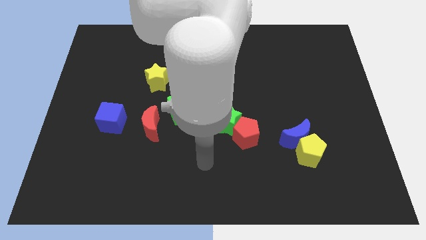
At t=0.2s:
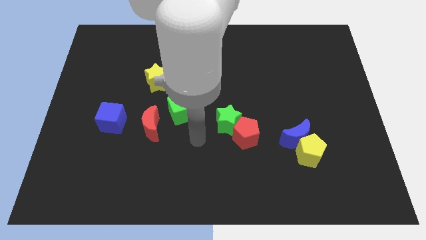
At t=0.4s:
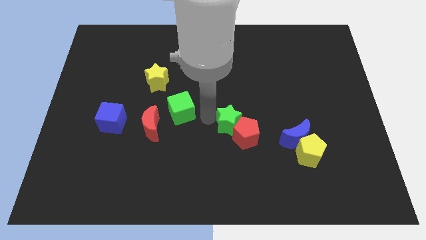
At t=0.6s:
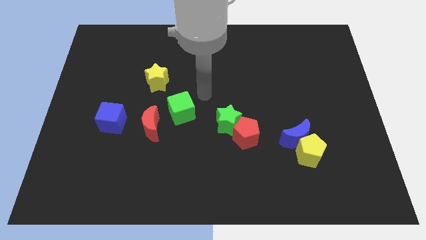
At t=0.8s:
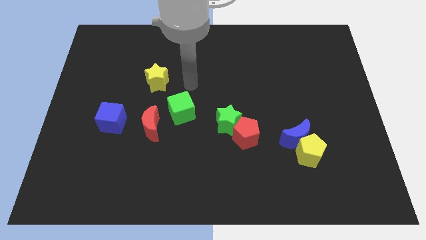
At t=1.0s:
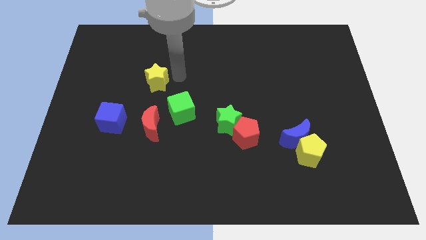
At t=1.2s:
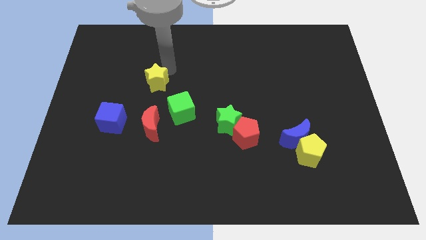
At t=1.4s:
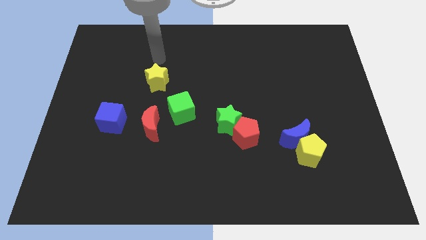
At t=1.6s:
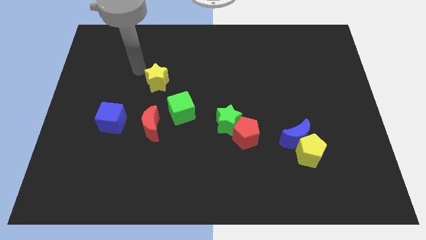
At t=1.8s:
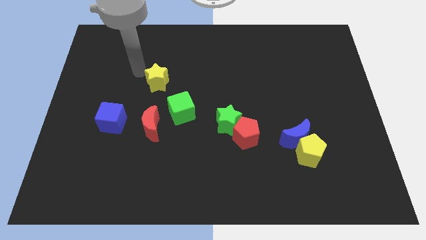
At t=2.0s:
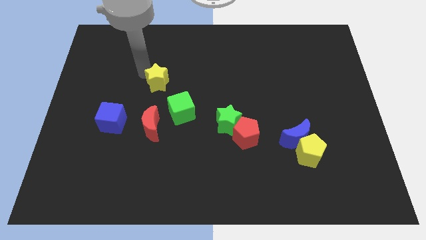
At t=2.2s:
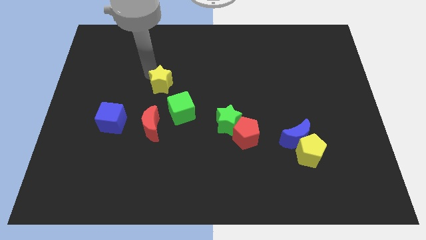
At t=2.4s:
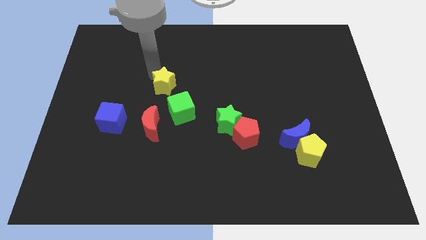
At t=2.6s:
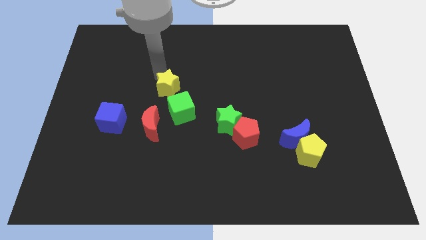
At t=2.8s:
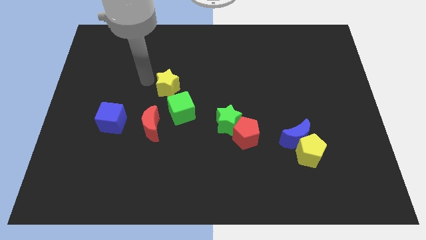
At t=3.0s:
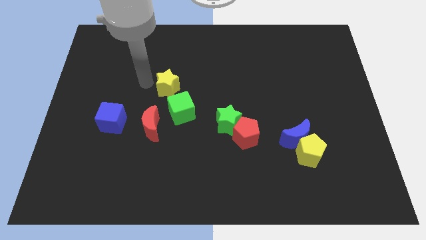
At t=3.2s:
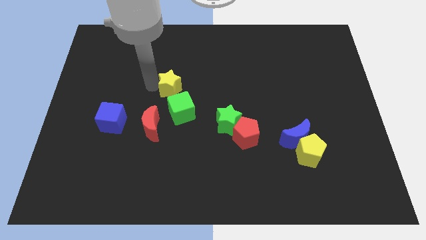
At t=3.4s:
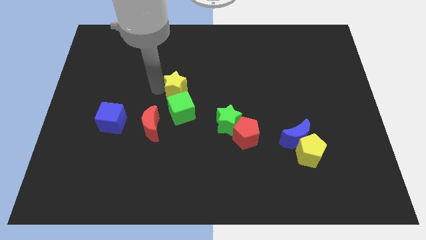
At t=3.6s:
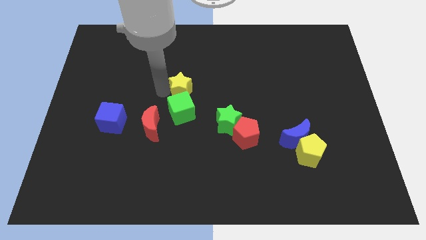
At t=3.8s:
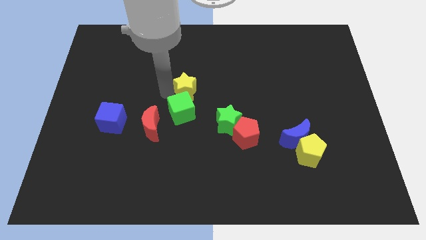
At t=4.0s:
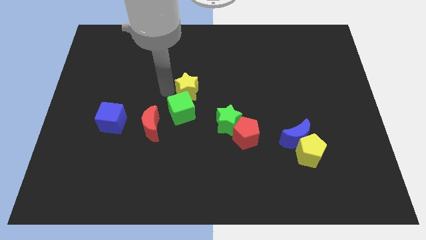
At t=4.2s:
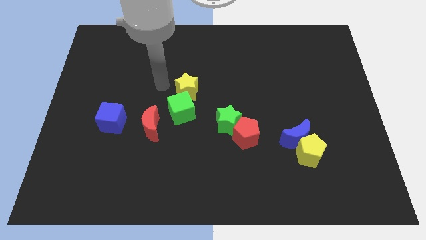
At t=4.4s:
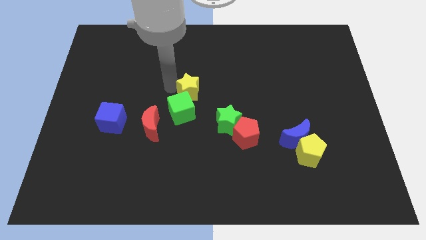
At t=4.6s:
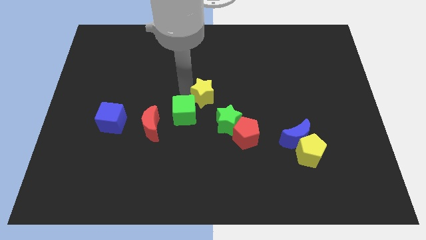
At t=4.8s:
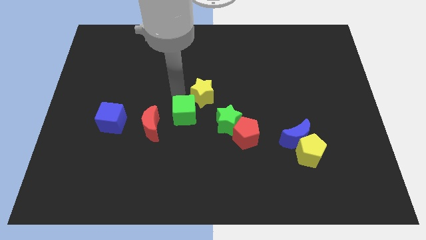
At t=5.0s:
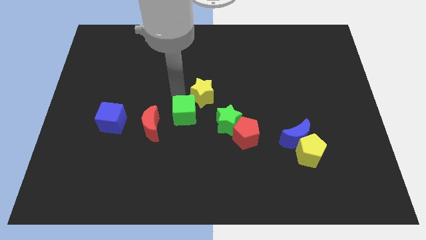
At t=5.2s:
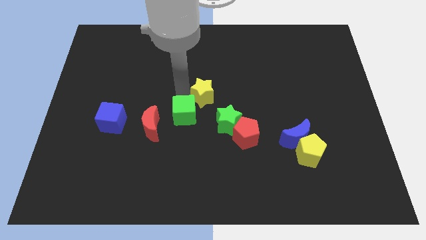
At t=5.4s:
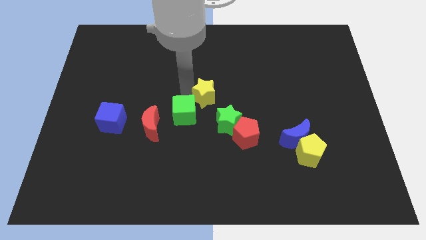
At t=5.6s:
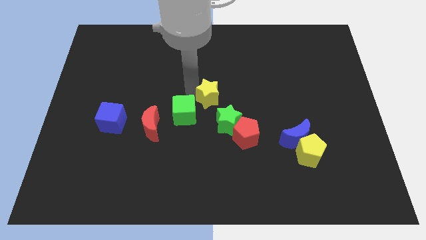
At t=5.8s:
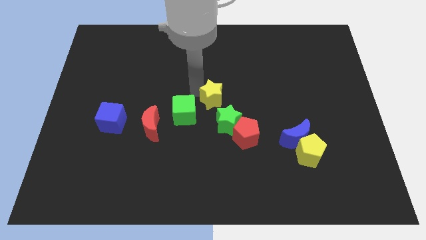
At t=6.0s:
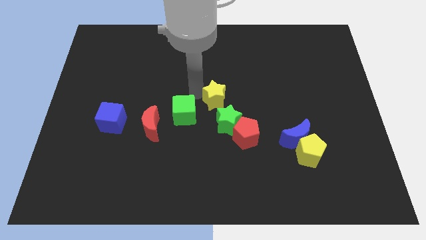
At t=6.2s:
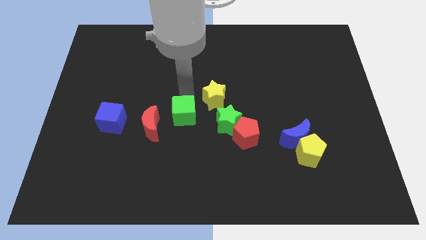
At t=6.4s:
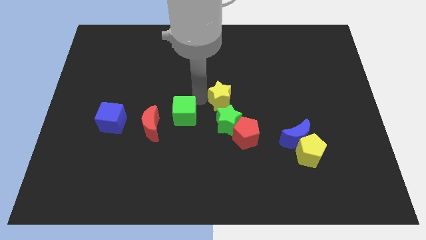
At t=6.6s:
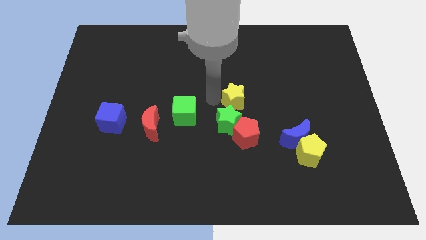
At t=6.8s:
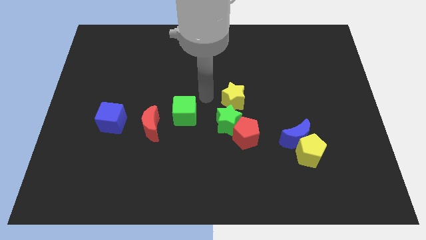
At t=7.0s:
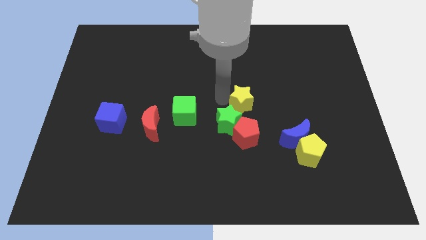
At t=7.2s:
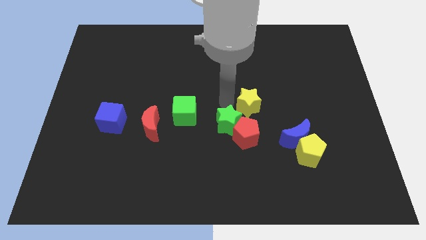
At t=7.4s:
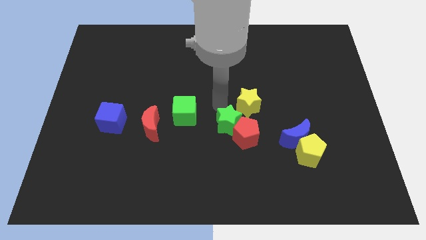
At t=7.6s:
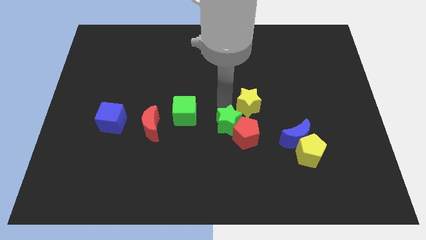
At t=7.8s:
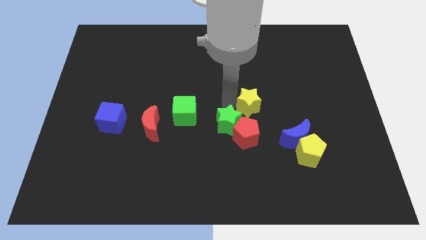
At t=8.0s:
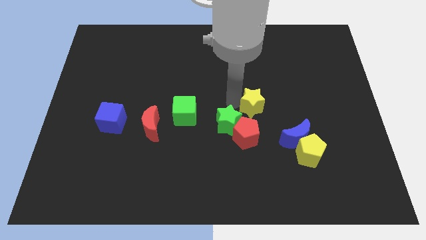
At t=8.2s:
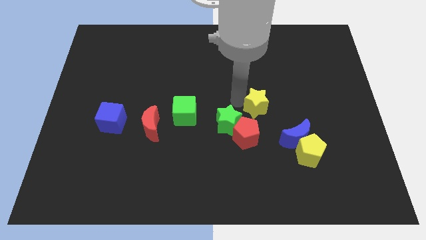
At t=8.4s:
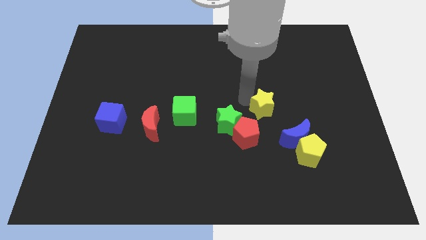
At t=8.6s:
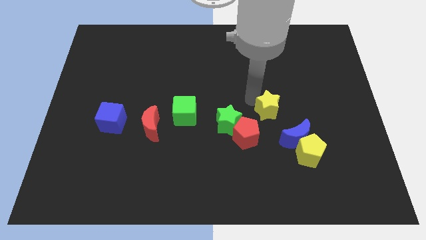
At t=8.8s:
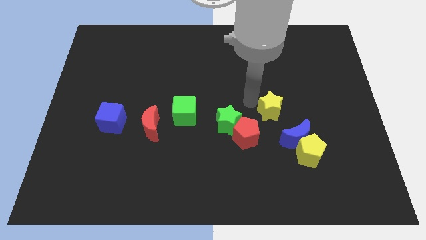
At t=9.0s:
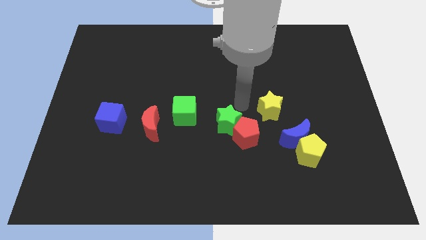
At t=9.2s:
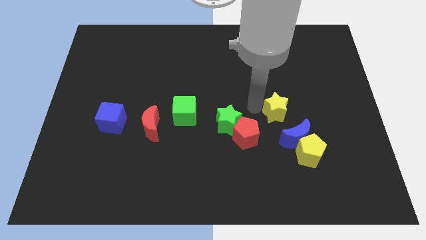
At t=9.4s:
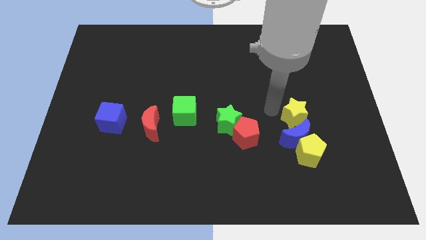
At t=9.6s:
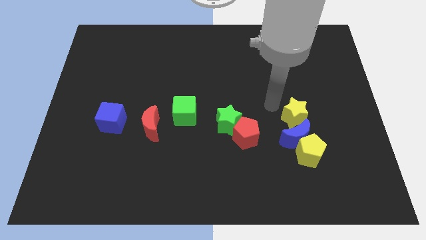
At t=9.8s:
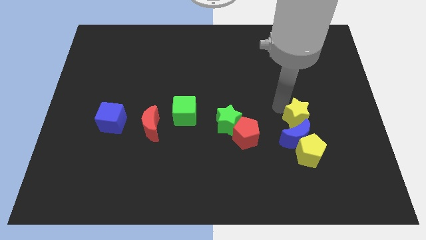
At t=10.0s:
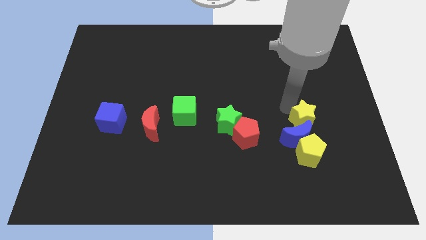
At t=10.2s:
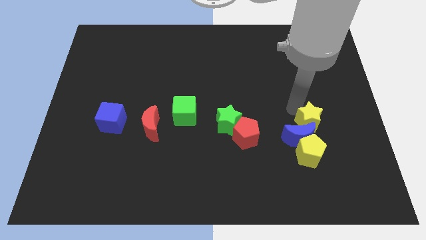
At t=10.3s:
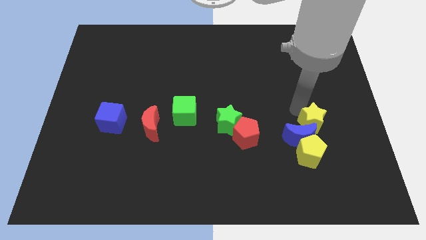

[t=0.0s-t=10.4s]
put the yellow star to the top right side of the yellow pentagon

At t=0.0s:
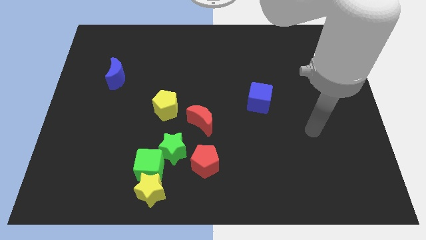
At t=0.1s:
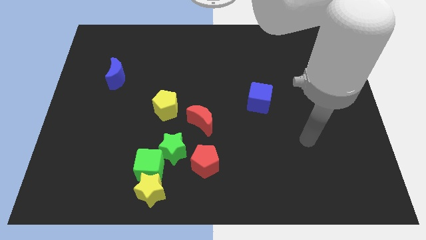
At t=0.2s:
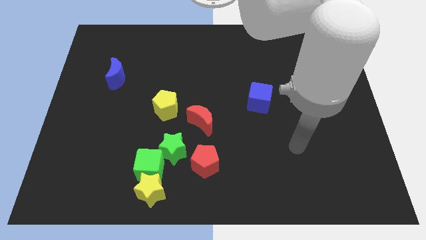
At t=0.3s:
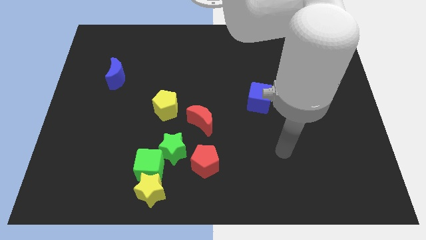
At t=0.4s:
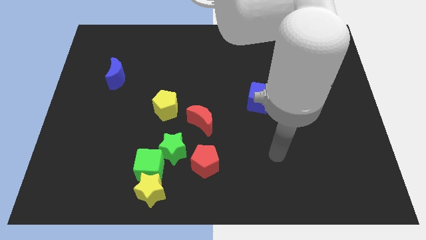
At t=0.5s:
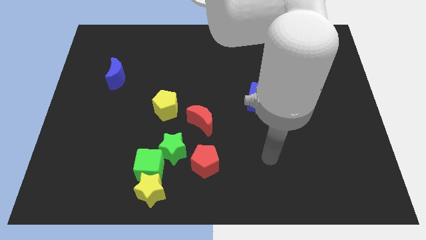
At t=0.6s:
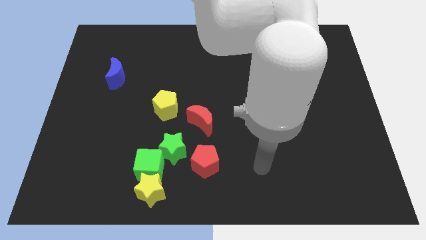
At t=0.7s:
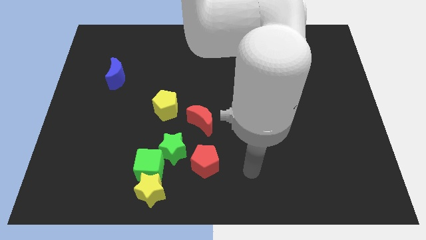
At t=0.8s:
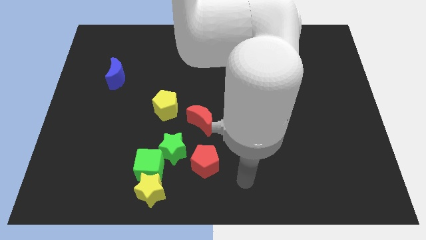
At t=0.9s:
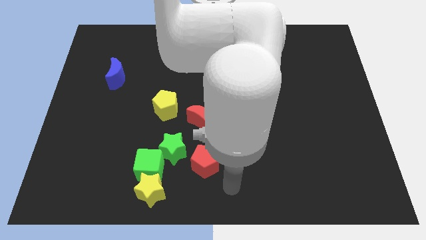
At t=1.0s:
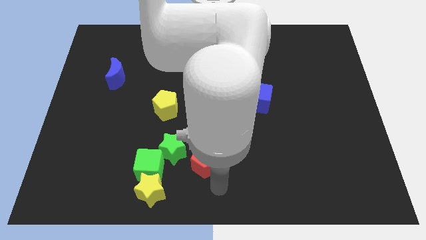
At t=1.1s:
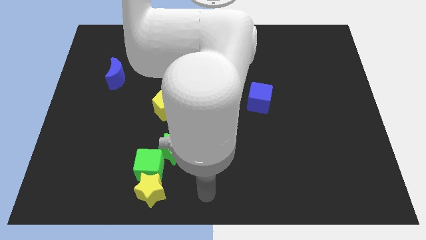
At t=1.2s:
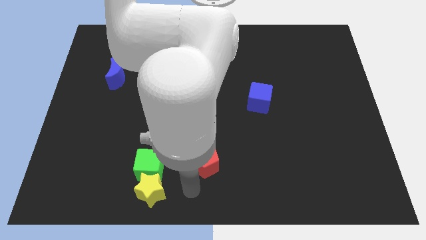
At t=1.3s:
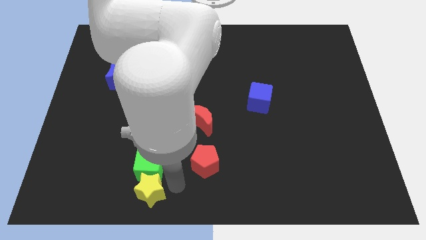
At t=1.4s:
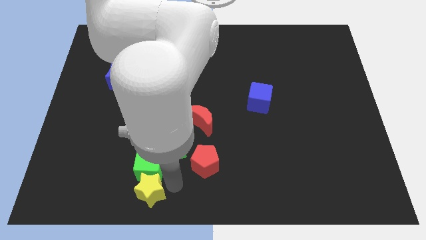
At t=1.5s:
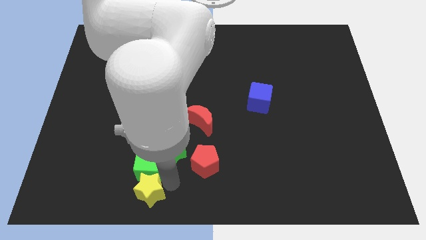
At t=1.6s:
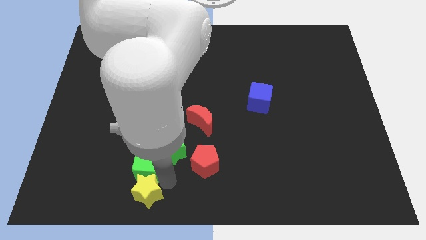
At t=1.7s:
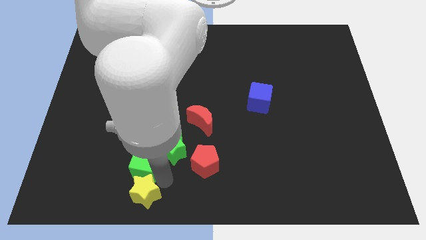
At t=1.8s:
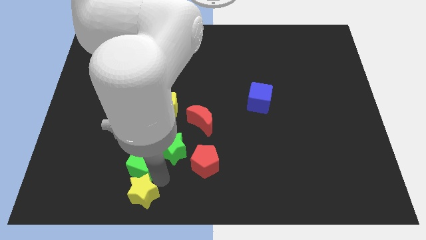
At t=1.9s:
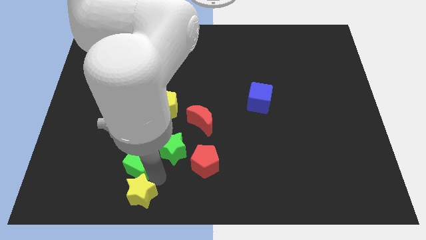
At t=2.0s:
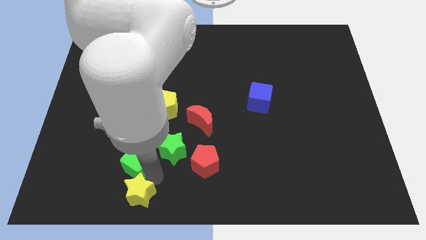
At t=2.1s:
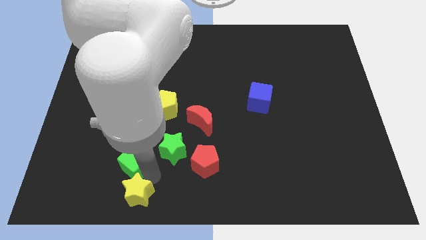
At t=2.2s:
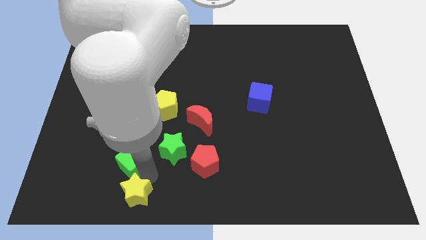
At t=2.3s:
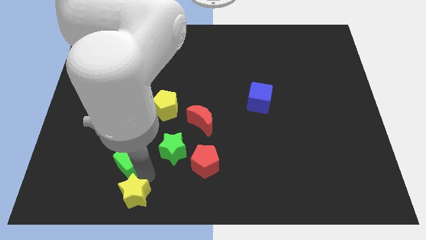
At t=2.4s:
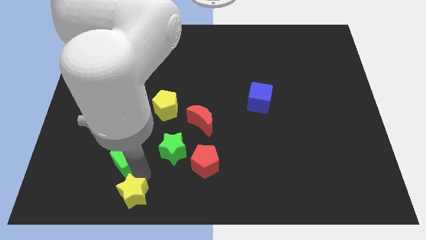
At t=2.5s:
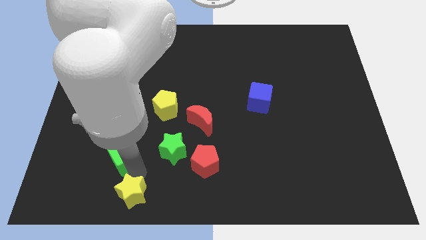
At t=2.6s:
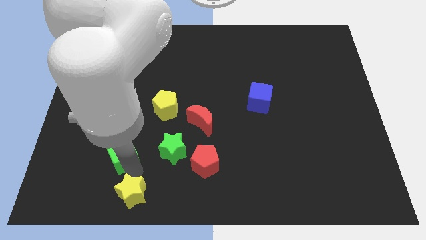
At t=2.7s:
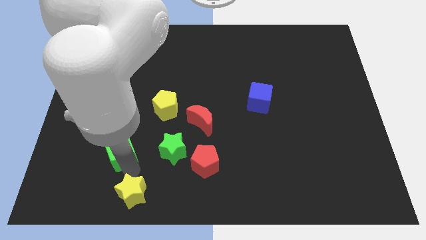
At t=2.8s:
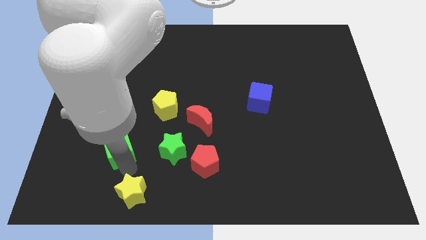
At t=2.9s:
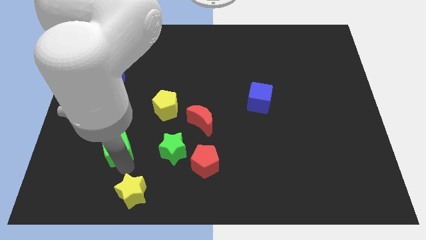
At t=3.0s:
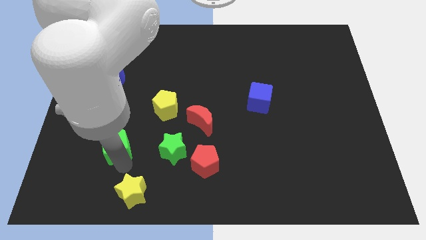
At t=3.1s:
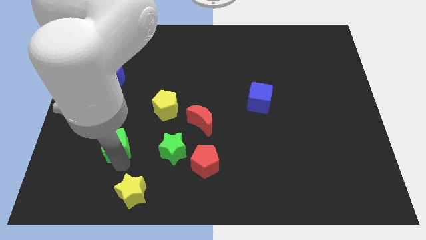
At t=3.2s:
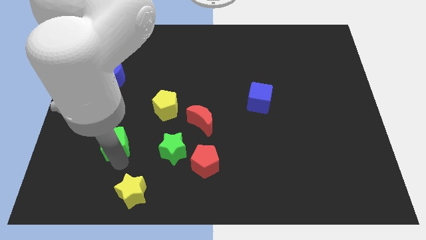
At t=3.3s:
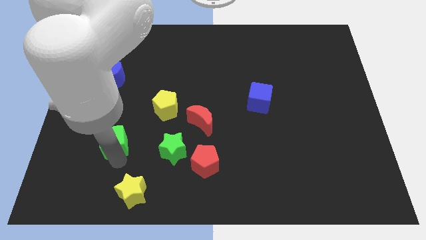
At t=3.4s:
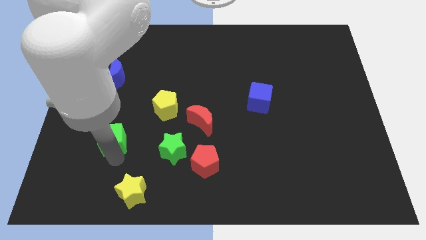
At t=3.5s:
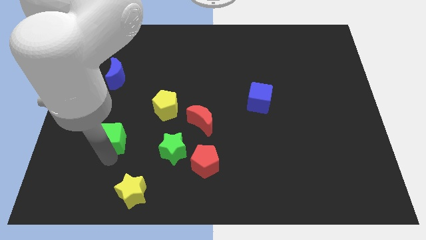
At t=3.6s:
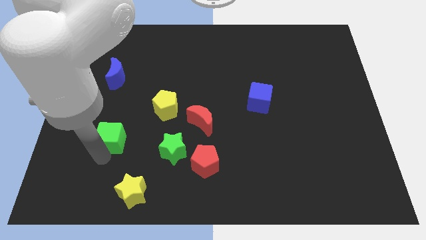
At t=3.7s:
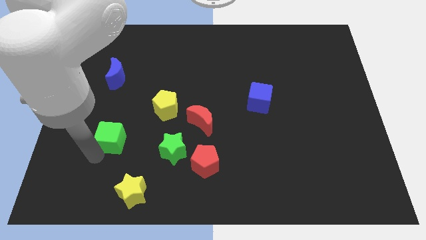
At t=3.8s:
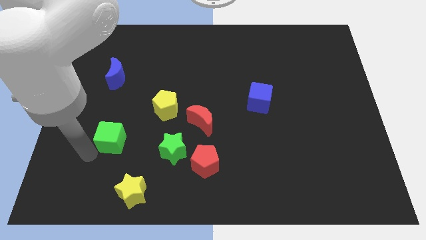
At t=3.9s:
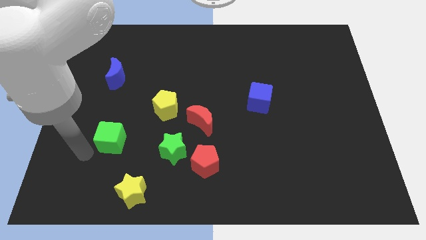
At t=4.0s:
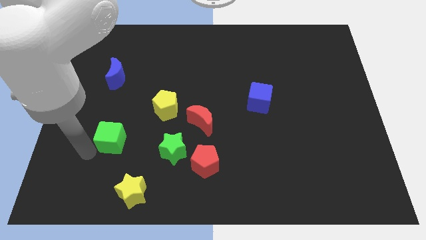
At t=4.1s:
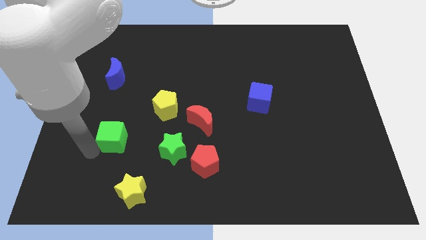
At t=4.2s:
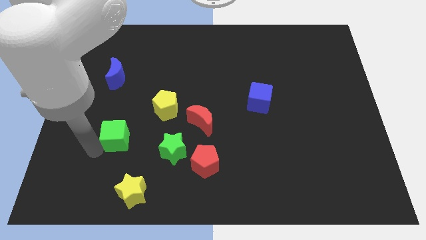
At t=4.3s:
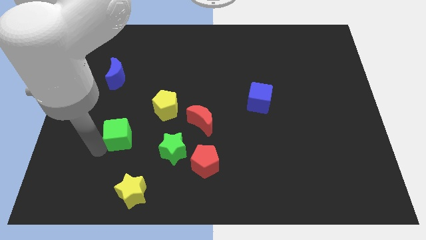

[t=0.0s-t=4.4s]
move the green cube to the bottom left side of the yellow pentagon
